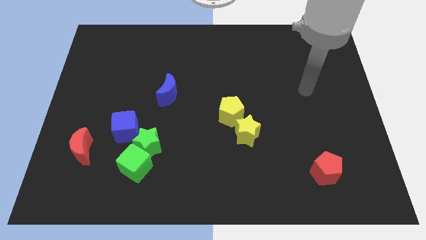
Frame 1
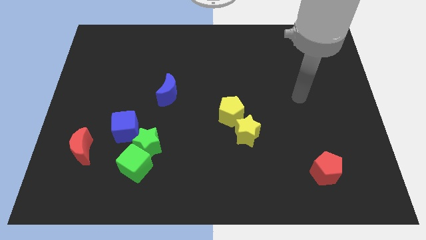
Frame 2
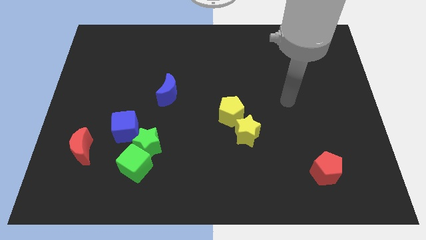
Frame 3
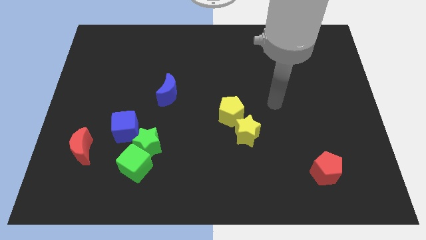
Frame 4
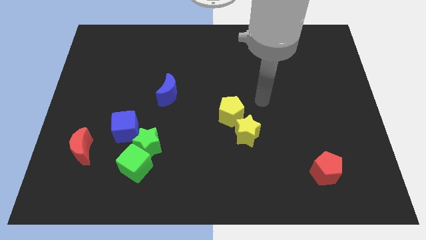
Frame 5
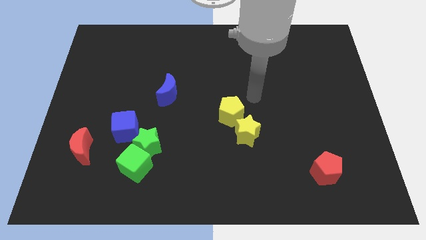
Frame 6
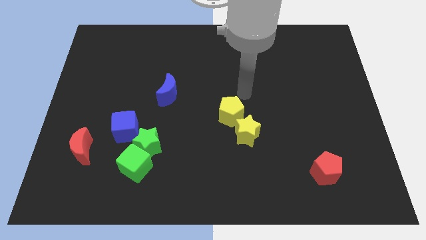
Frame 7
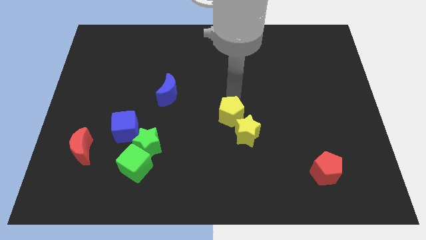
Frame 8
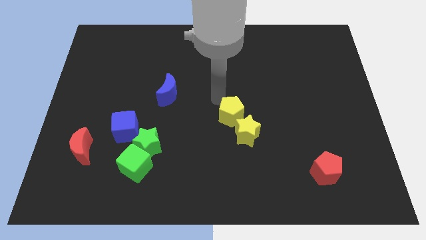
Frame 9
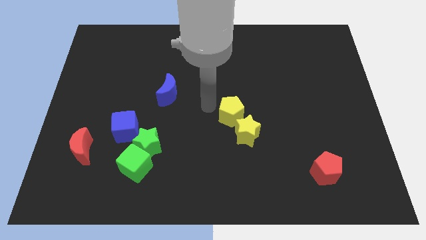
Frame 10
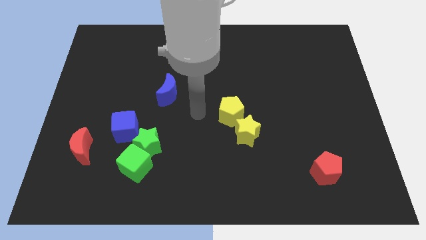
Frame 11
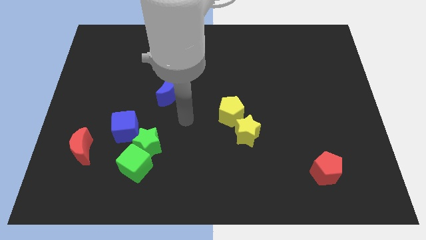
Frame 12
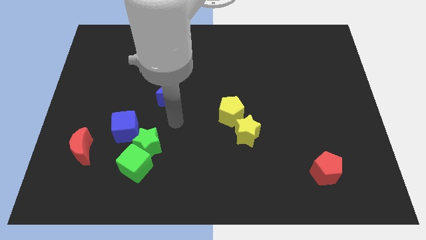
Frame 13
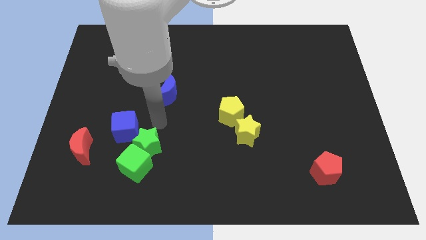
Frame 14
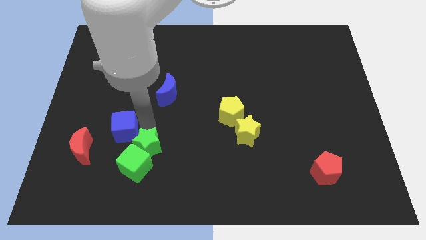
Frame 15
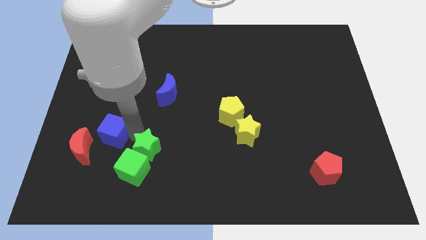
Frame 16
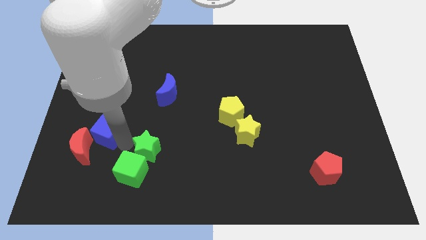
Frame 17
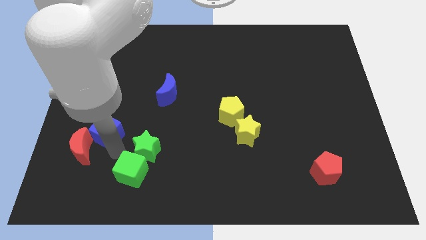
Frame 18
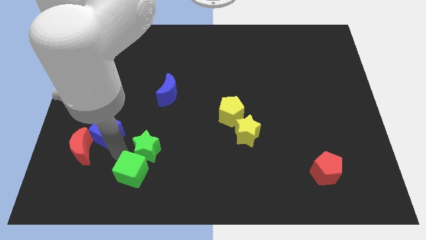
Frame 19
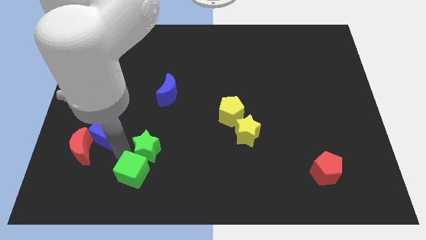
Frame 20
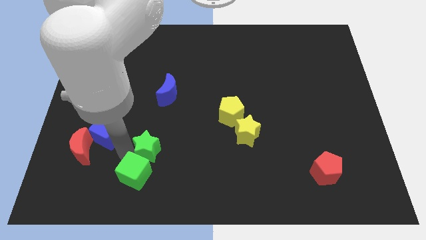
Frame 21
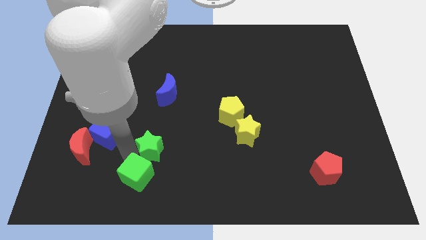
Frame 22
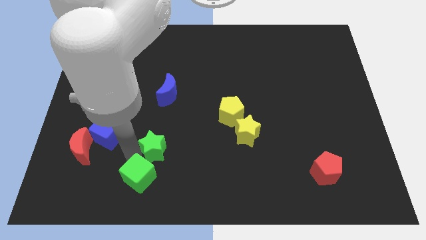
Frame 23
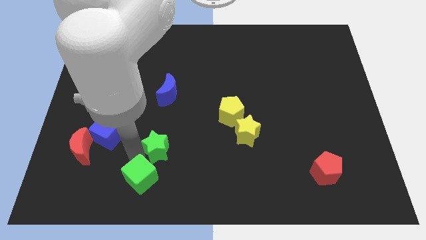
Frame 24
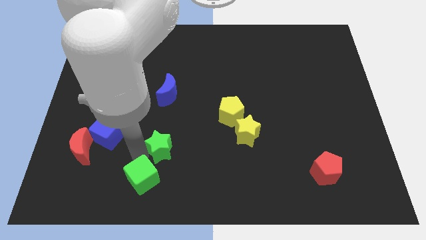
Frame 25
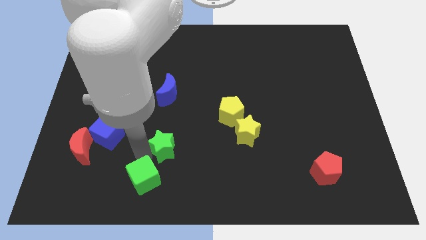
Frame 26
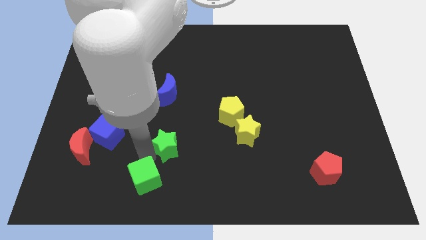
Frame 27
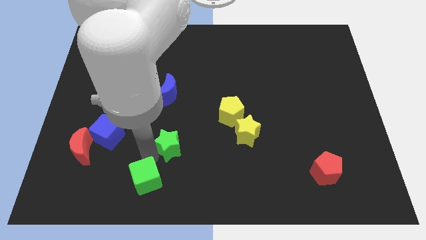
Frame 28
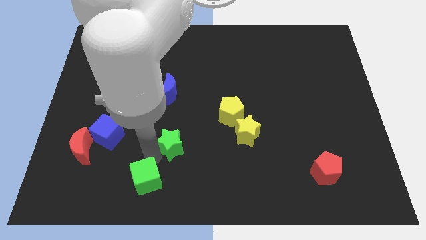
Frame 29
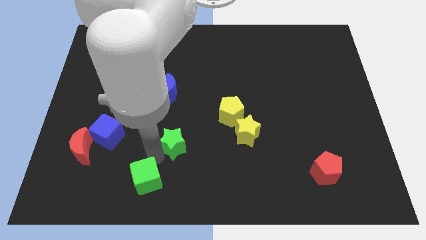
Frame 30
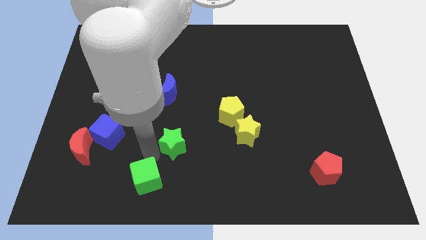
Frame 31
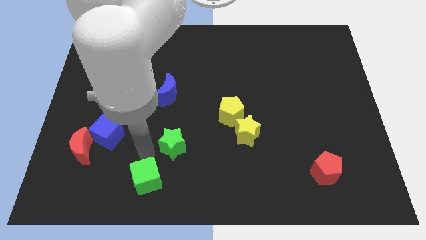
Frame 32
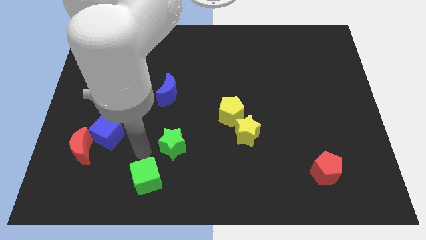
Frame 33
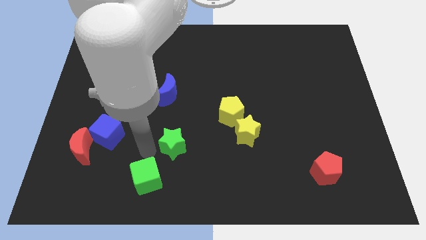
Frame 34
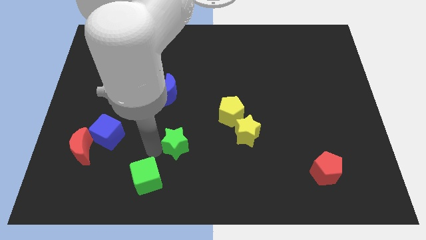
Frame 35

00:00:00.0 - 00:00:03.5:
pull the green star apart from the green cube and blue cube

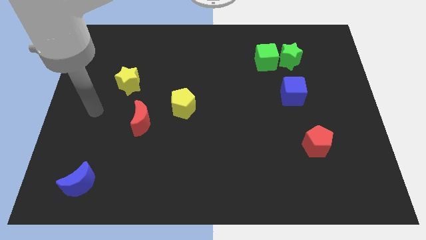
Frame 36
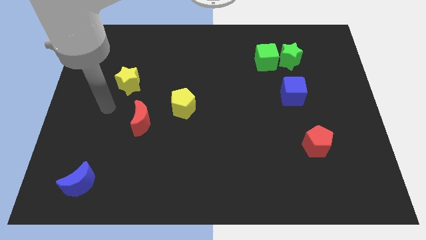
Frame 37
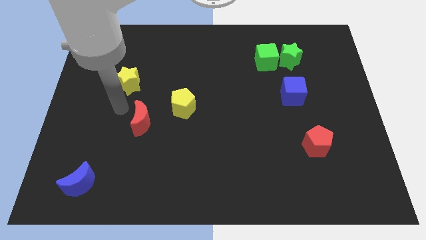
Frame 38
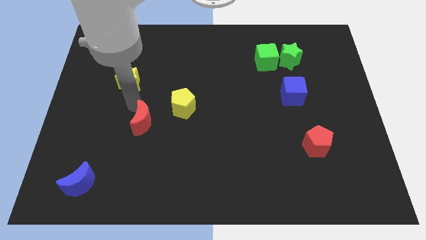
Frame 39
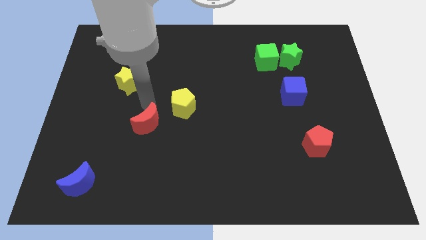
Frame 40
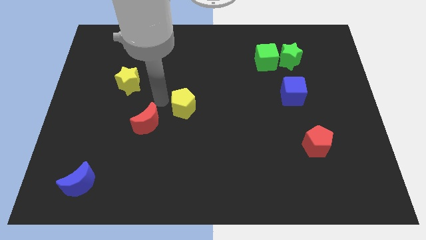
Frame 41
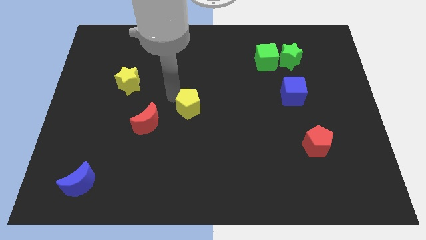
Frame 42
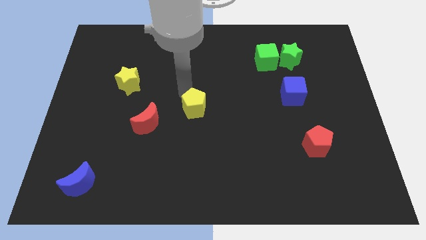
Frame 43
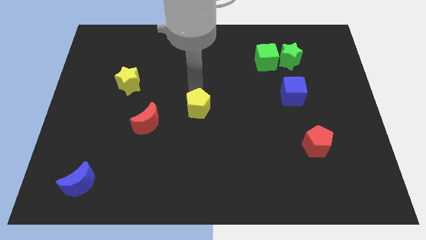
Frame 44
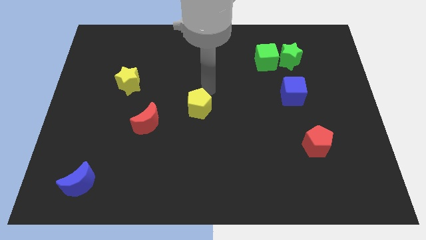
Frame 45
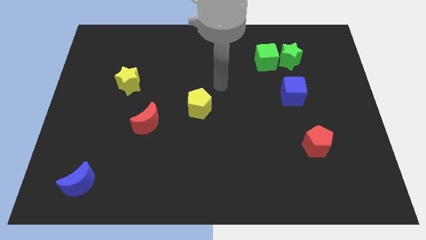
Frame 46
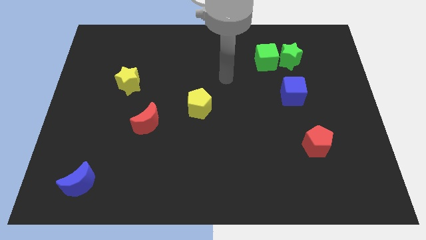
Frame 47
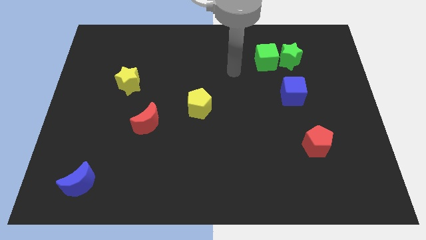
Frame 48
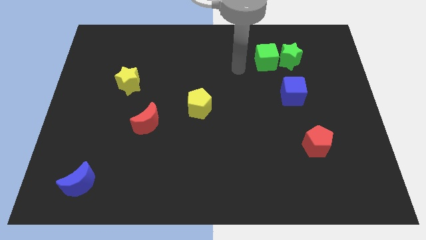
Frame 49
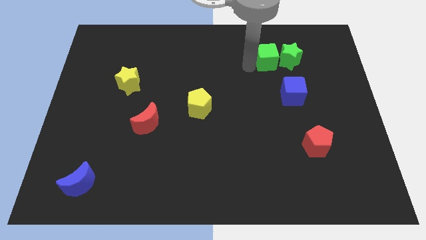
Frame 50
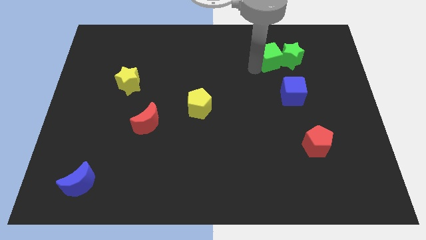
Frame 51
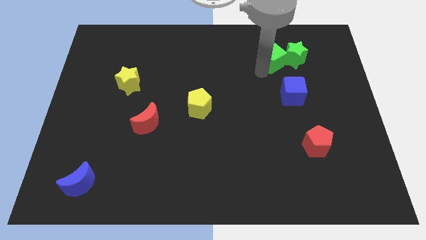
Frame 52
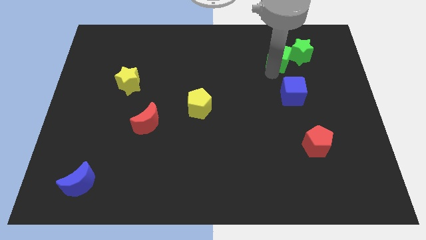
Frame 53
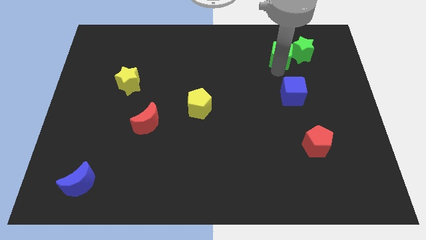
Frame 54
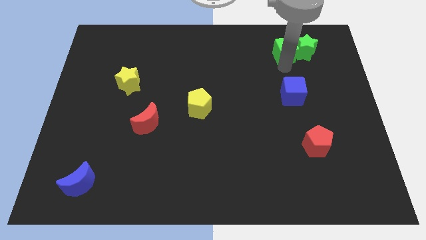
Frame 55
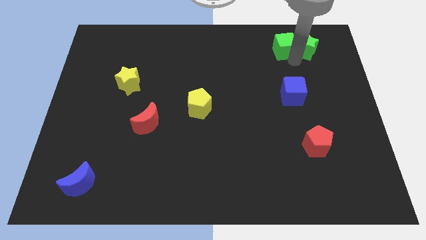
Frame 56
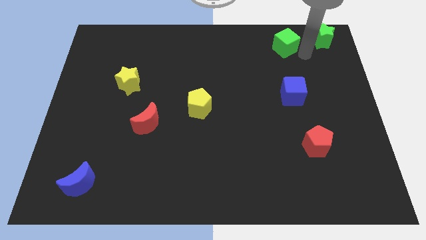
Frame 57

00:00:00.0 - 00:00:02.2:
move the green cube away from the green star

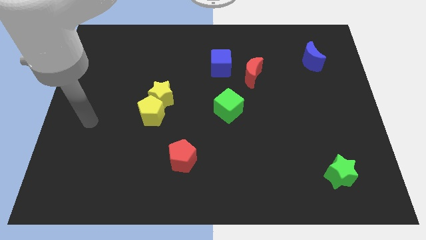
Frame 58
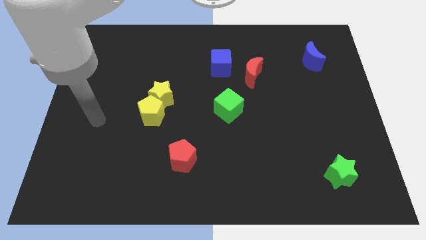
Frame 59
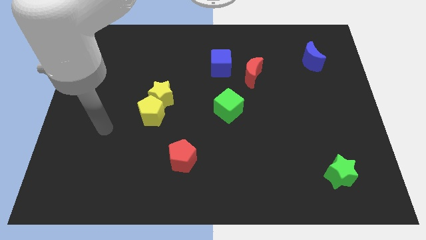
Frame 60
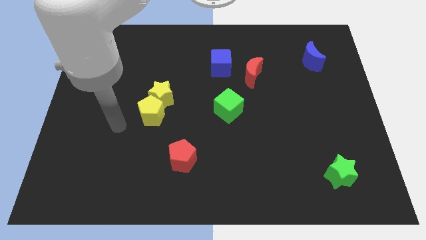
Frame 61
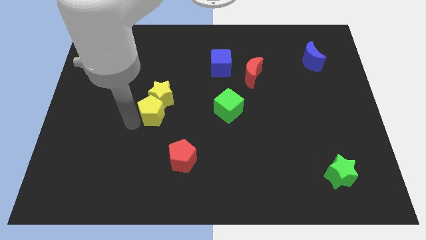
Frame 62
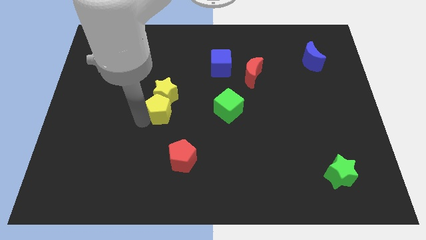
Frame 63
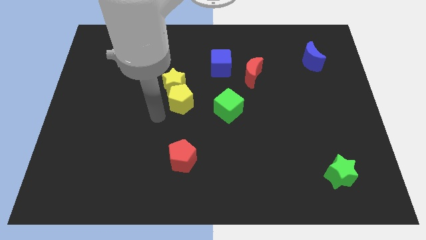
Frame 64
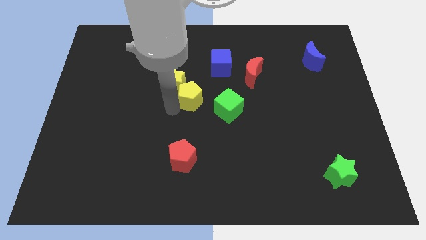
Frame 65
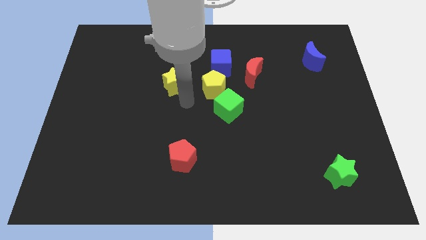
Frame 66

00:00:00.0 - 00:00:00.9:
pull the yellow star apart from the yellow pentagon

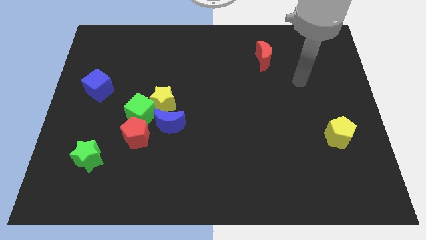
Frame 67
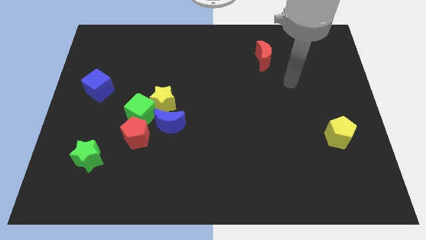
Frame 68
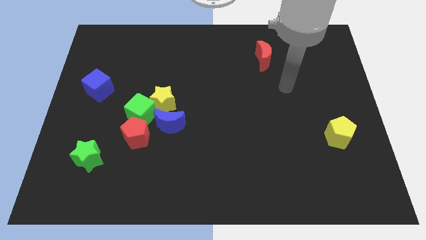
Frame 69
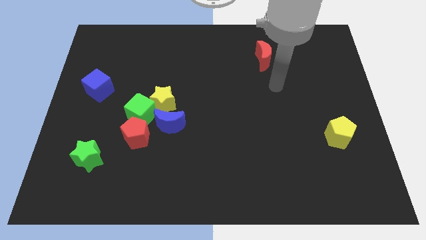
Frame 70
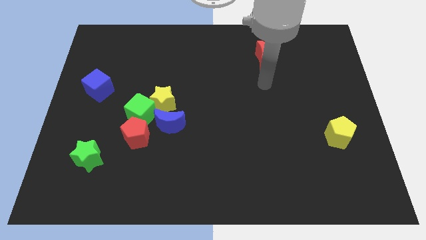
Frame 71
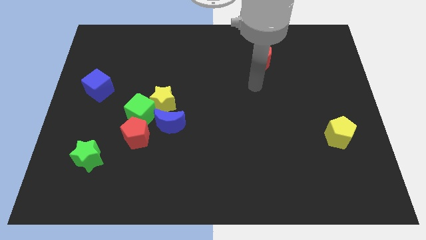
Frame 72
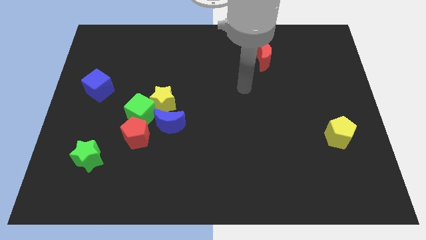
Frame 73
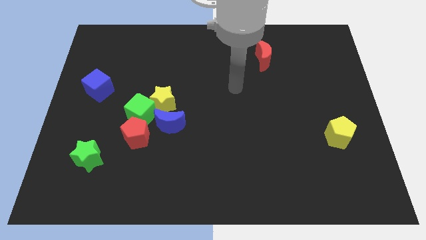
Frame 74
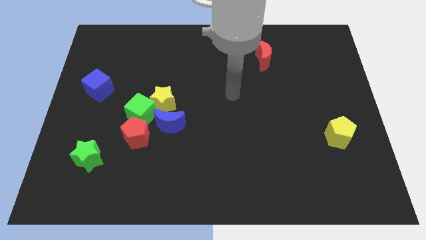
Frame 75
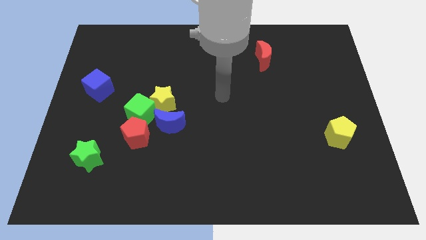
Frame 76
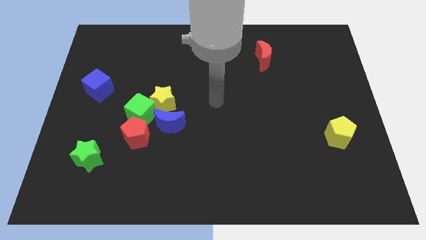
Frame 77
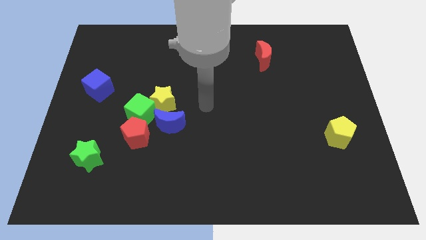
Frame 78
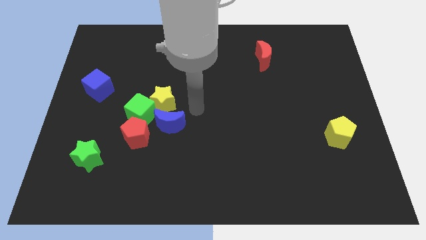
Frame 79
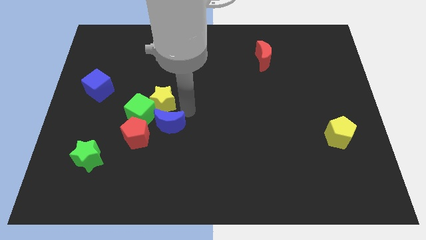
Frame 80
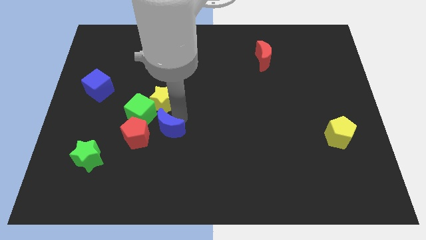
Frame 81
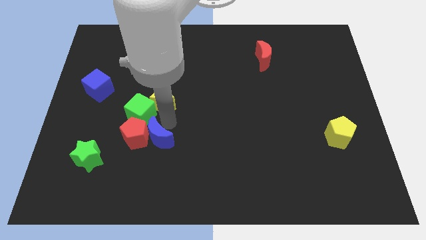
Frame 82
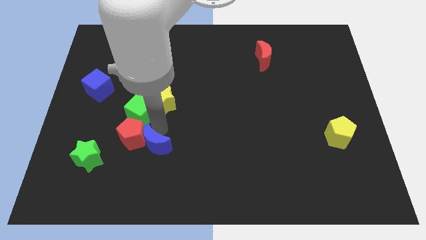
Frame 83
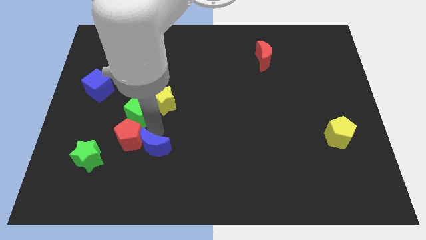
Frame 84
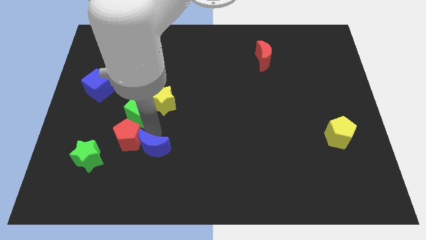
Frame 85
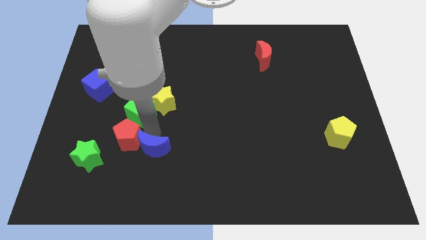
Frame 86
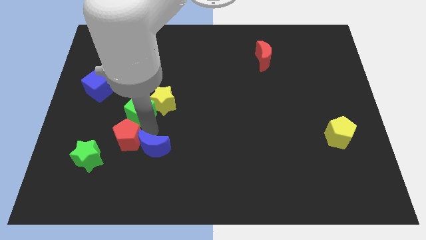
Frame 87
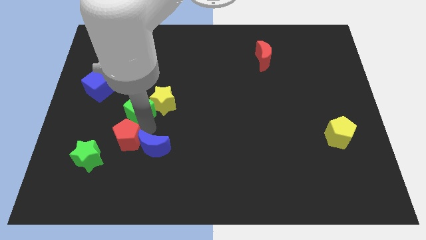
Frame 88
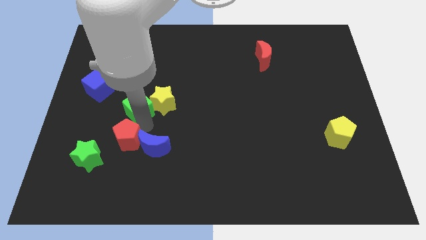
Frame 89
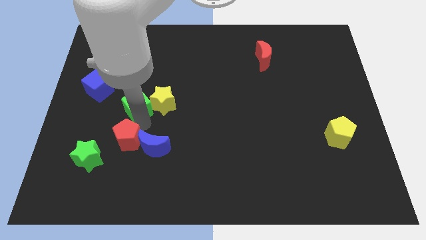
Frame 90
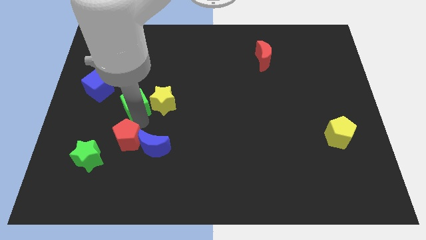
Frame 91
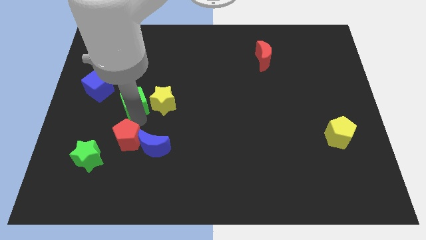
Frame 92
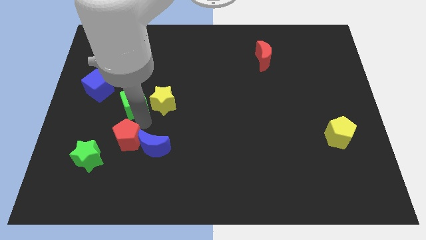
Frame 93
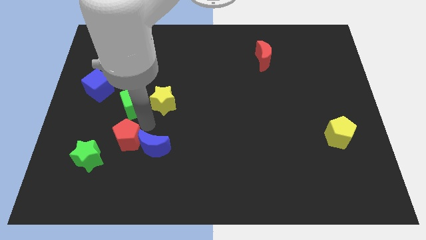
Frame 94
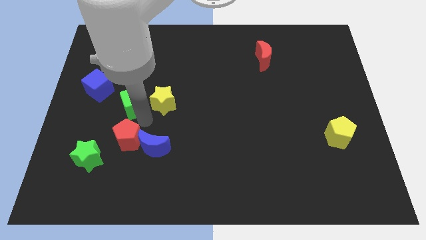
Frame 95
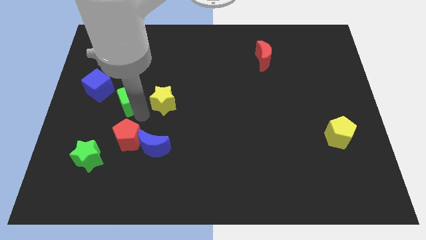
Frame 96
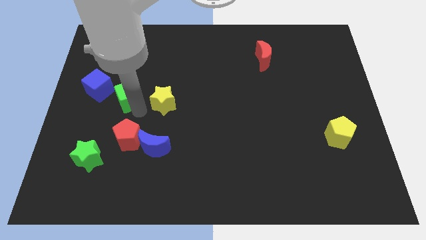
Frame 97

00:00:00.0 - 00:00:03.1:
pull the green cube apart from the group of blocks
